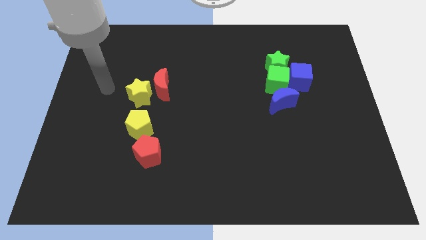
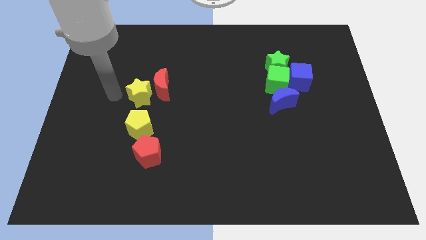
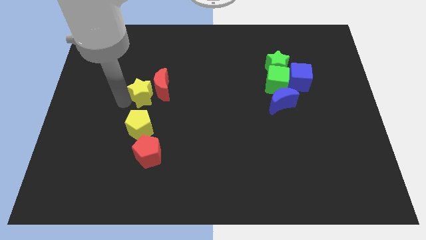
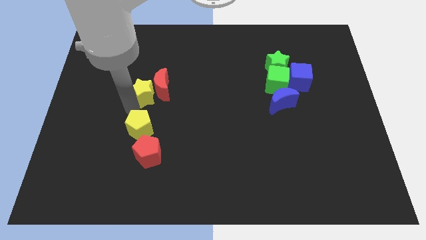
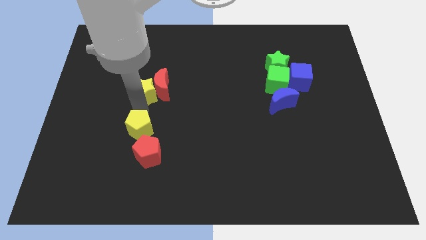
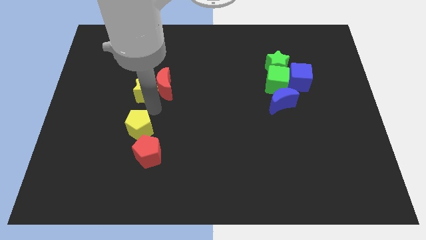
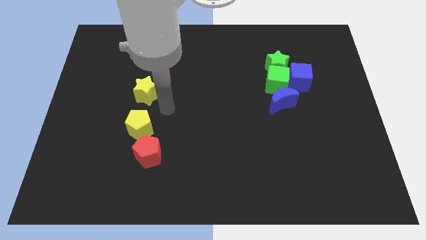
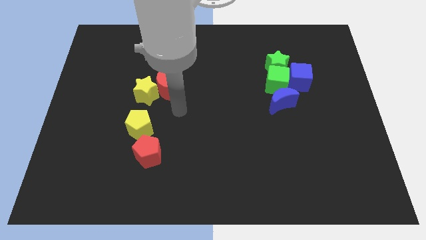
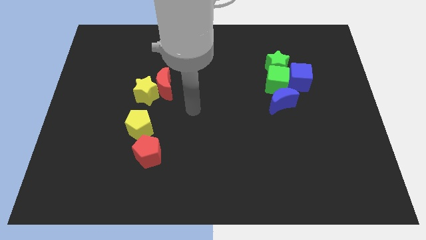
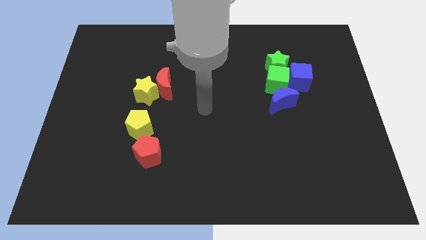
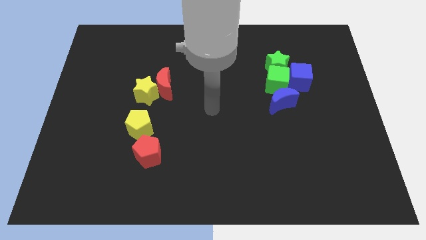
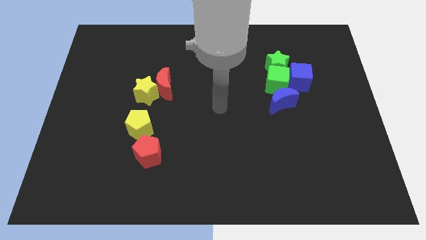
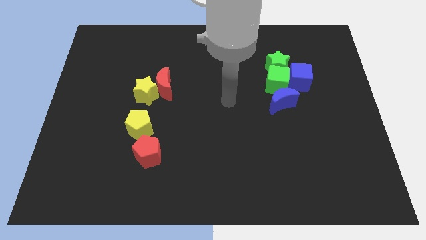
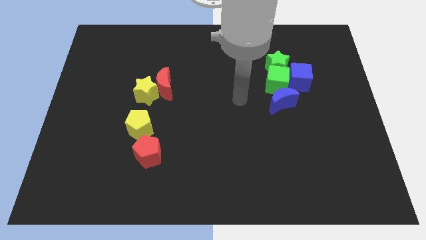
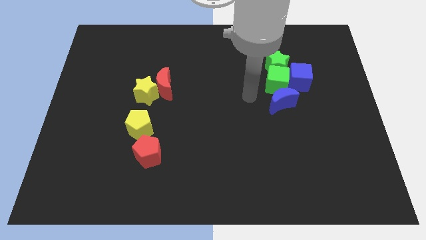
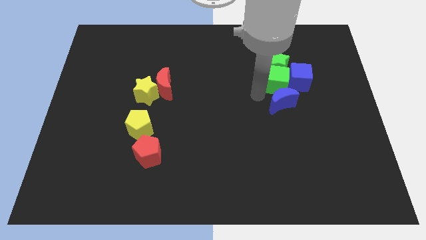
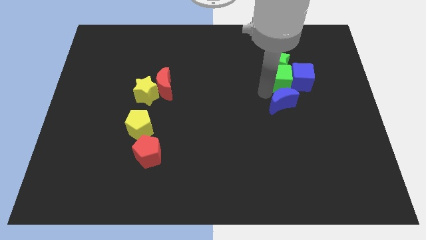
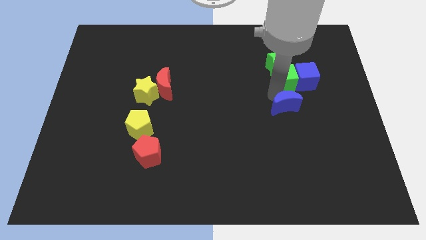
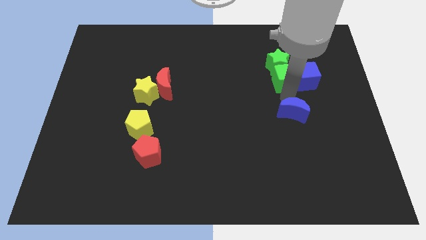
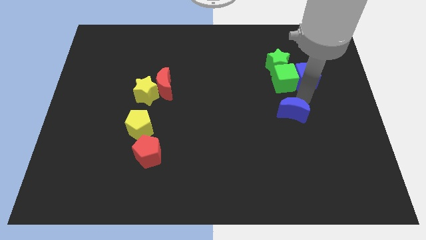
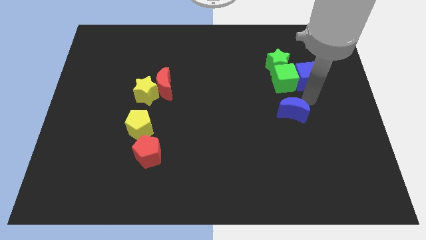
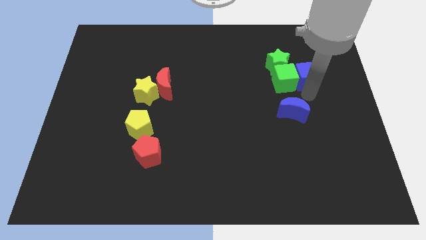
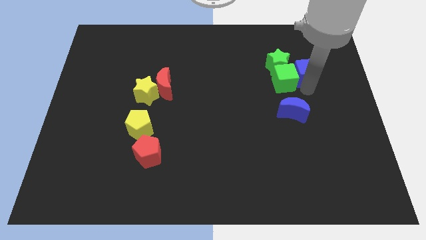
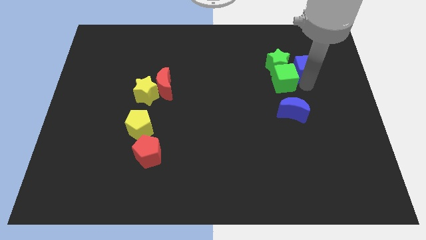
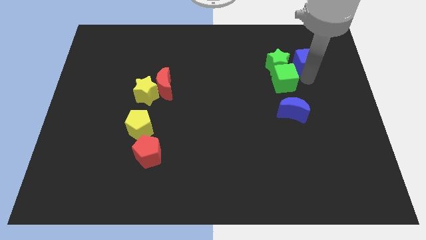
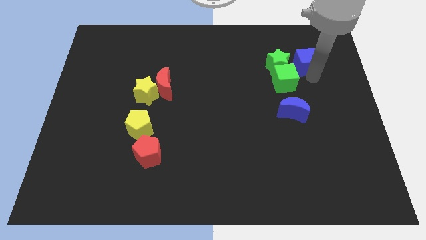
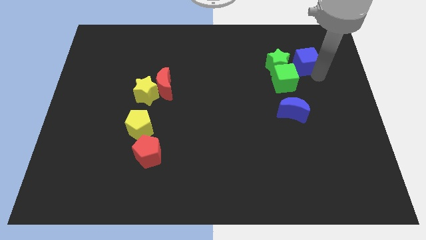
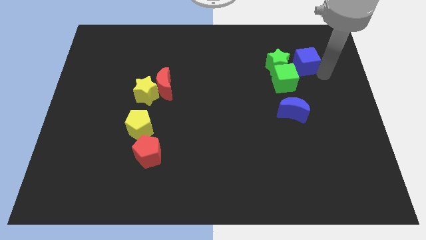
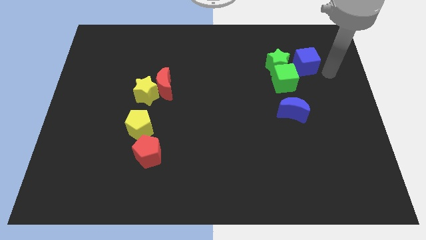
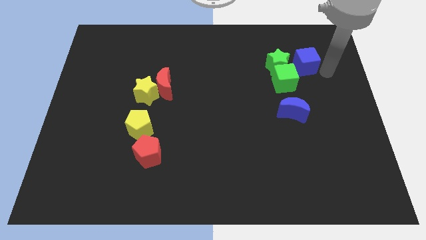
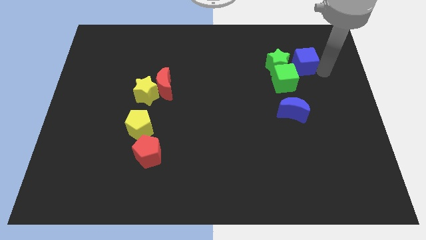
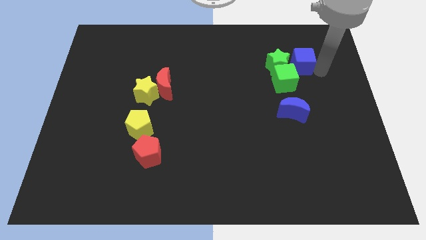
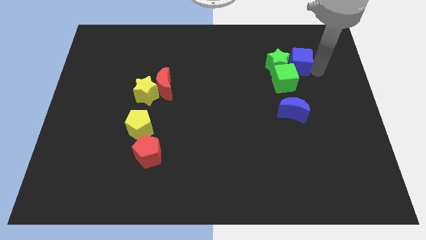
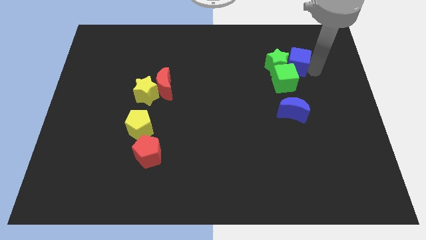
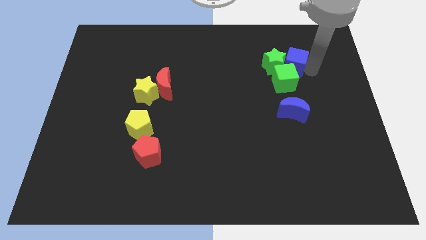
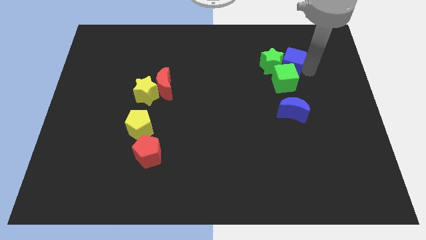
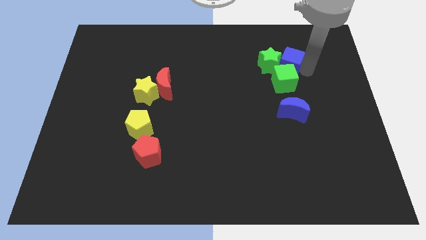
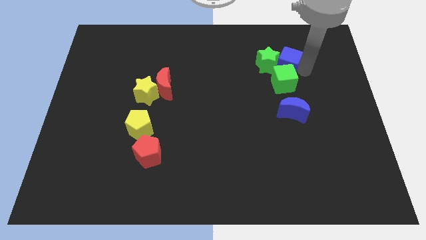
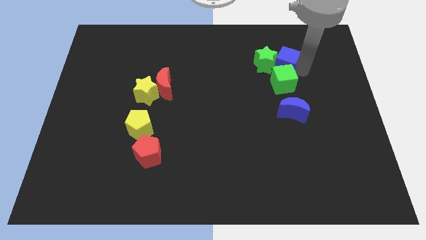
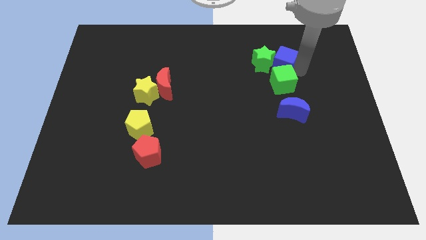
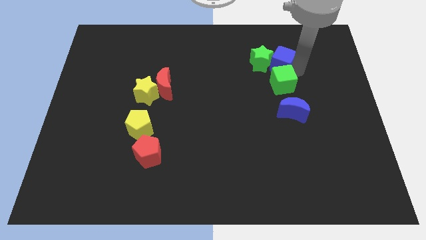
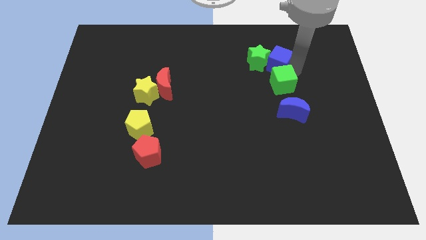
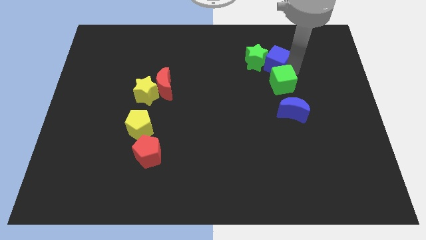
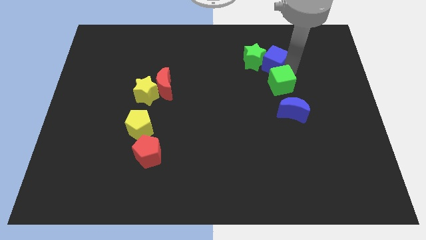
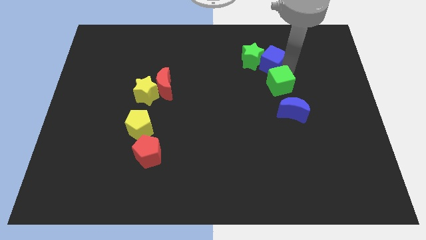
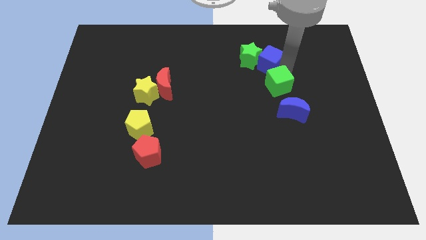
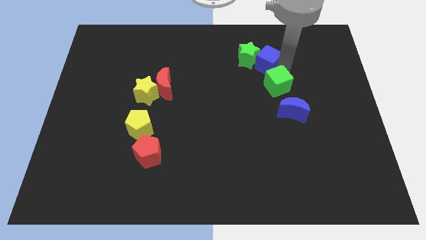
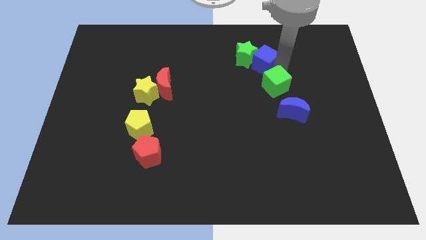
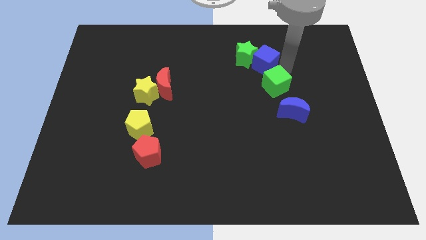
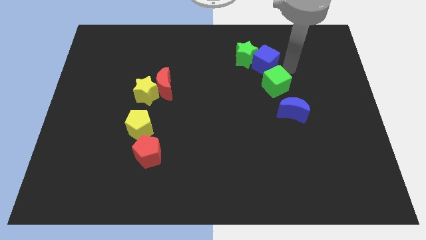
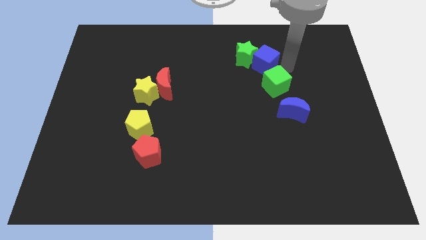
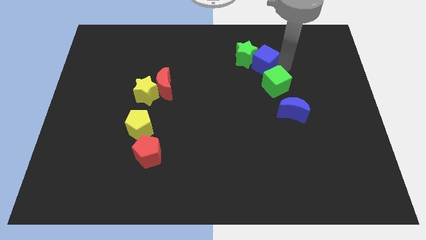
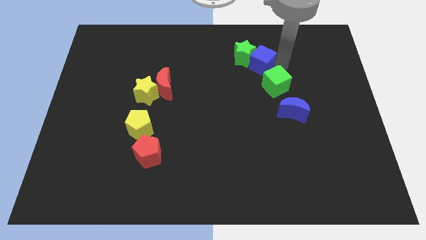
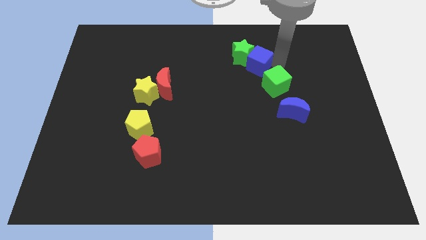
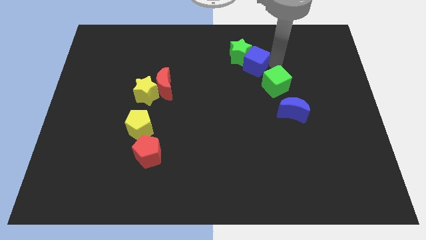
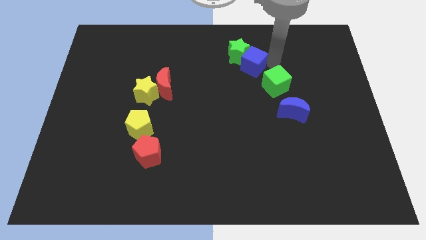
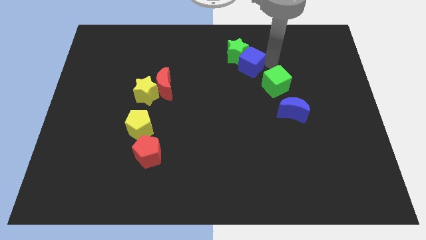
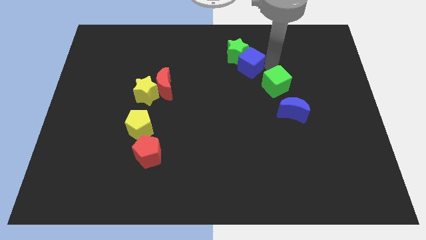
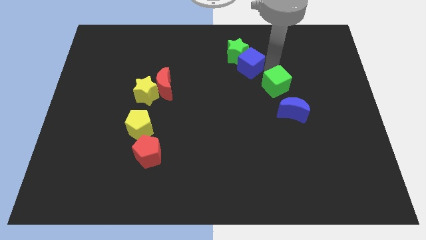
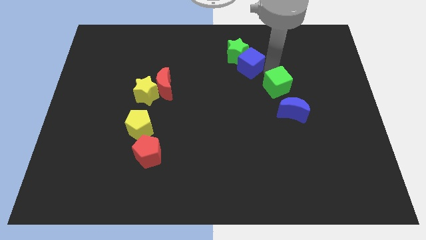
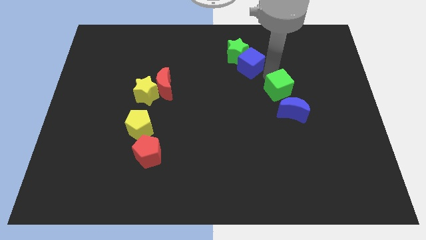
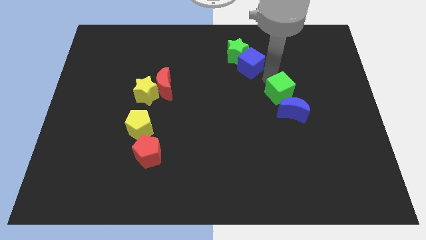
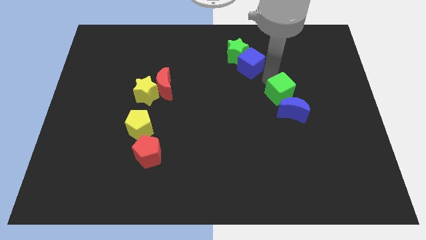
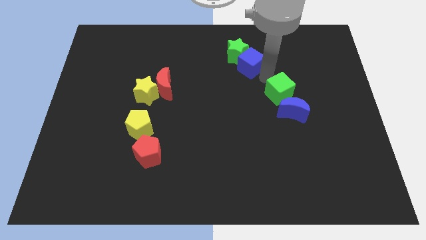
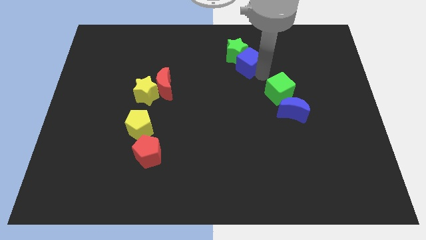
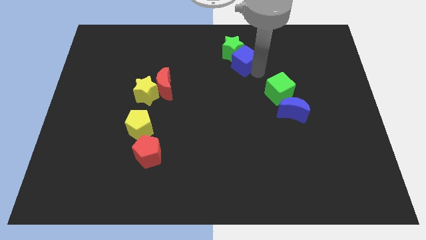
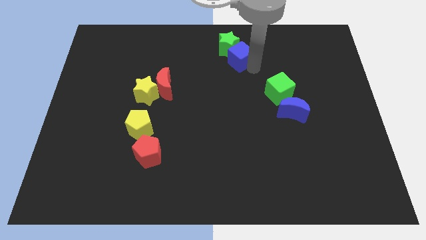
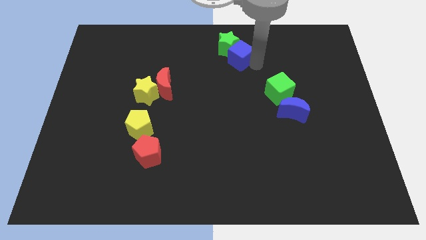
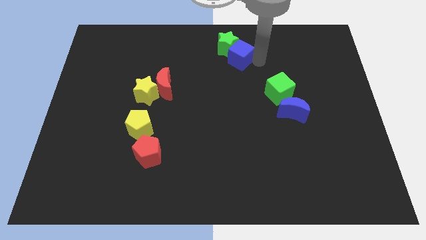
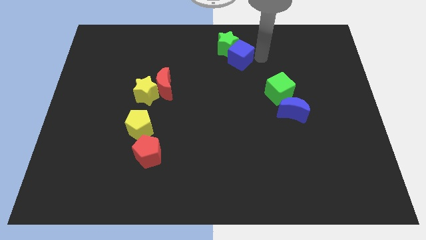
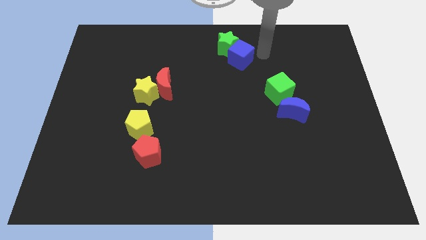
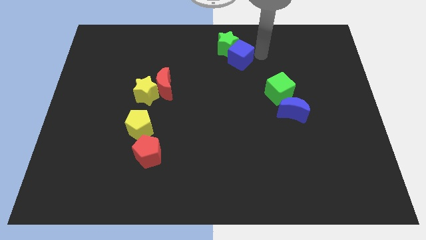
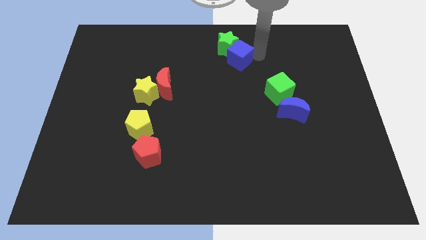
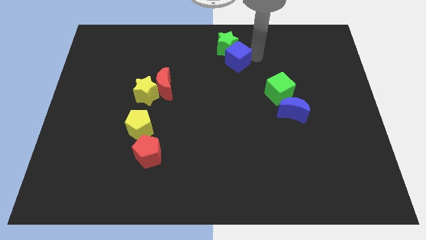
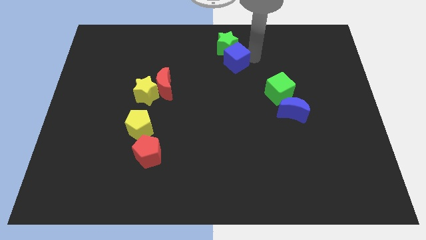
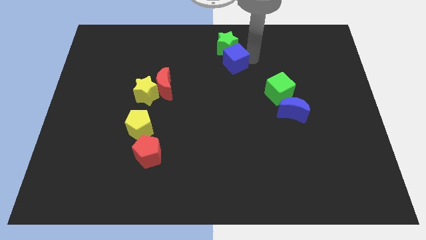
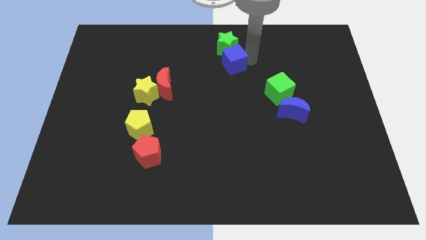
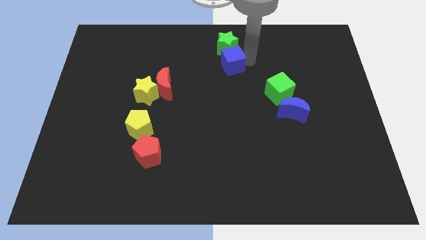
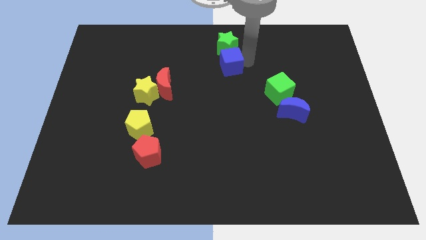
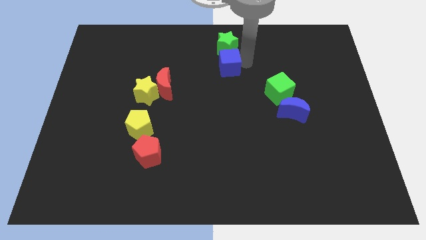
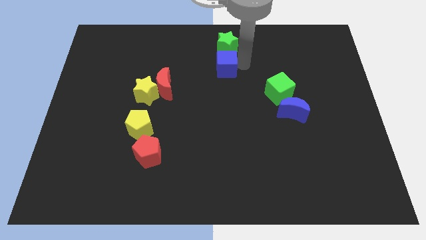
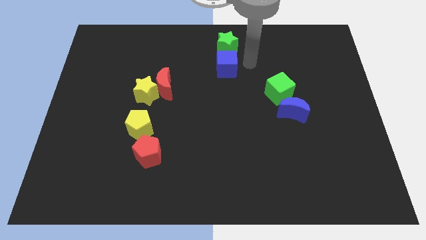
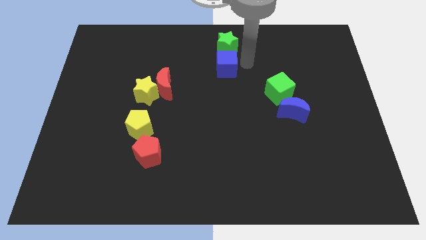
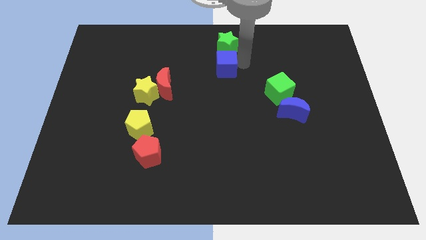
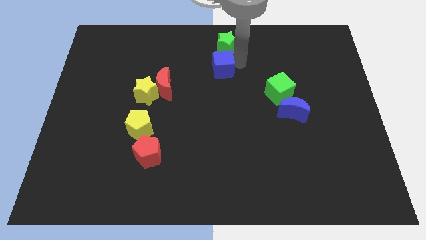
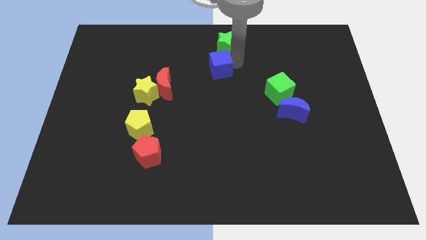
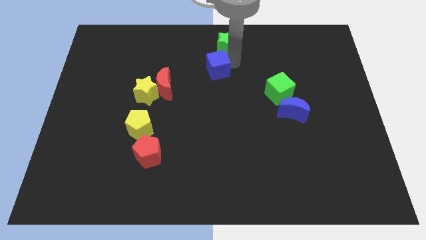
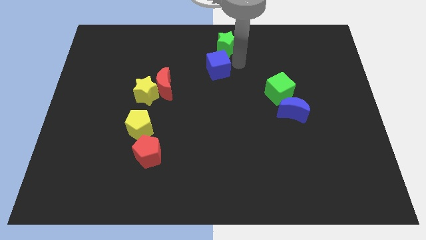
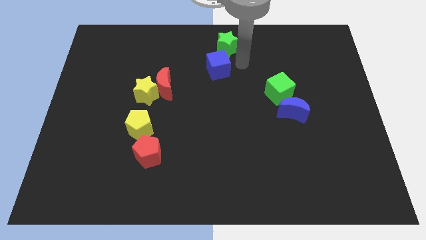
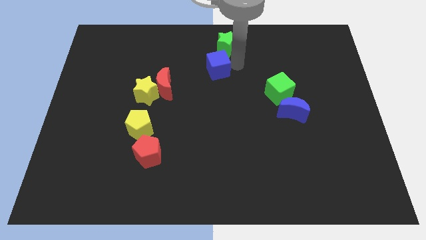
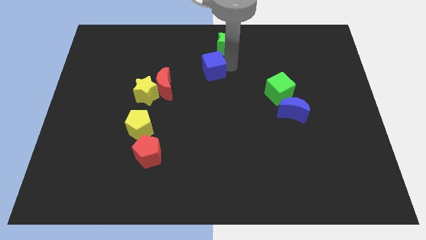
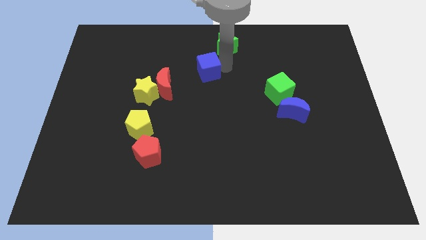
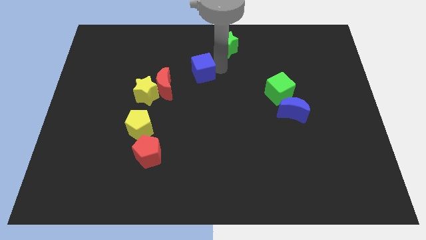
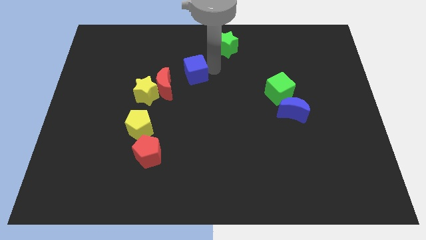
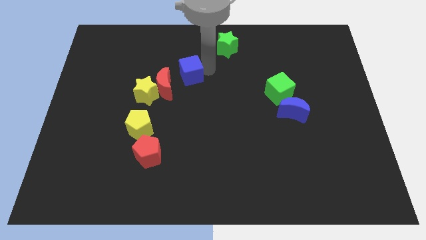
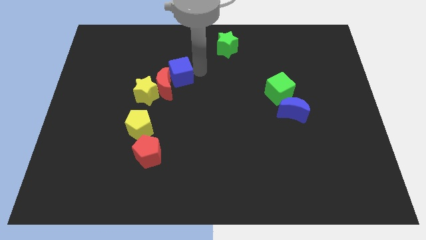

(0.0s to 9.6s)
move the blue cube close to the red moon
